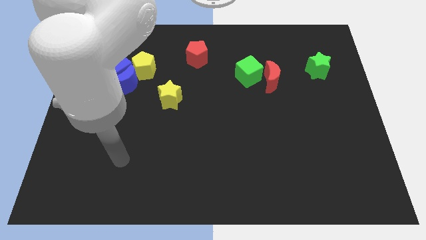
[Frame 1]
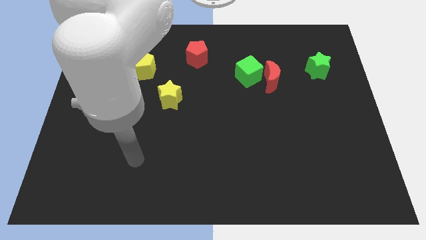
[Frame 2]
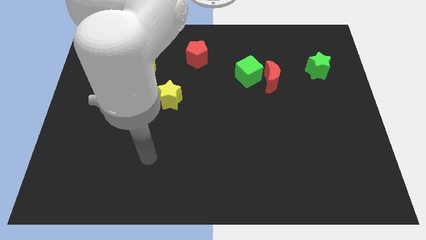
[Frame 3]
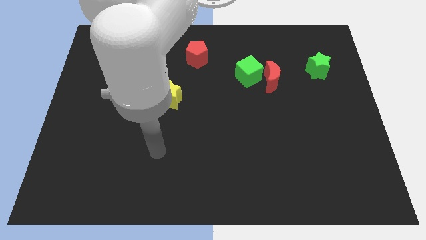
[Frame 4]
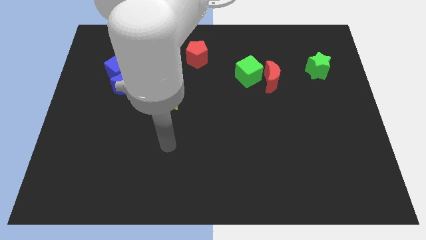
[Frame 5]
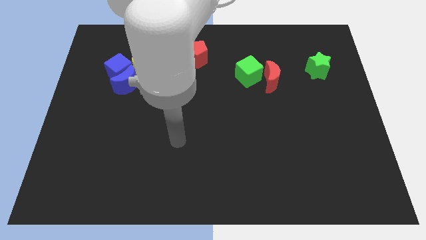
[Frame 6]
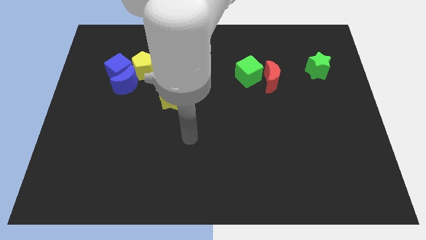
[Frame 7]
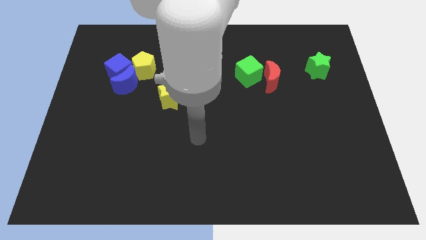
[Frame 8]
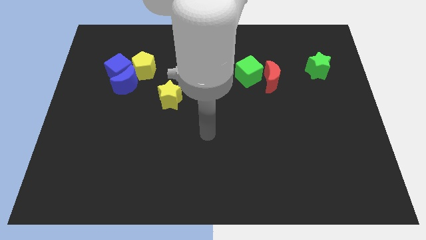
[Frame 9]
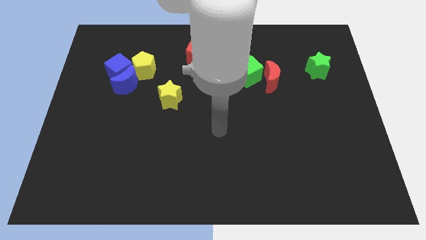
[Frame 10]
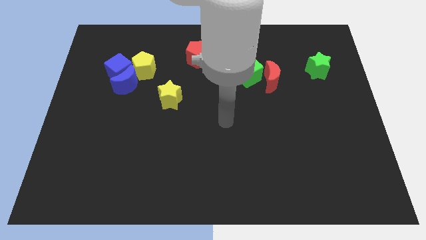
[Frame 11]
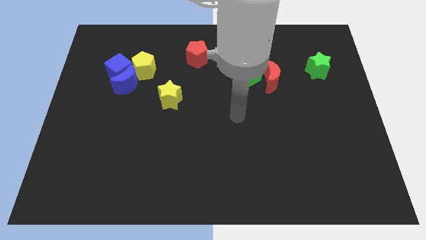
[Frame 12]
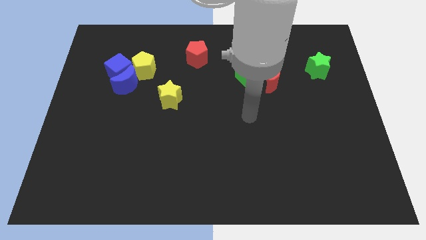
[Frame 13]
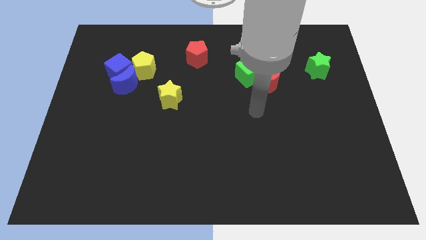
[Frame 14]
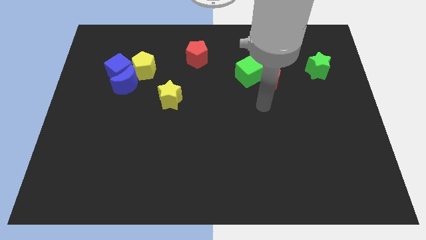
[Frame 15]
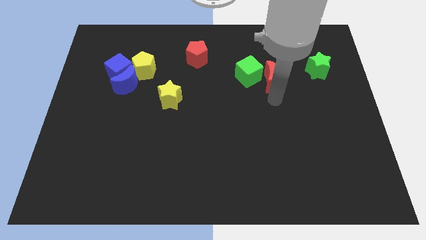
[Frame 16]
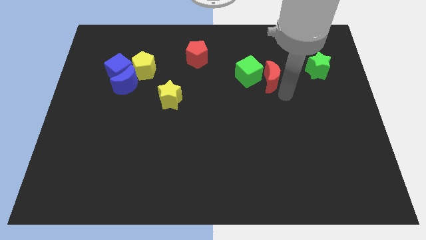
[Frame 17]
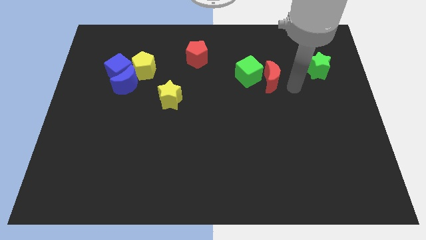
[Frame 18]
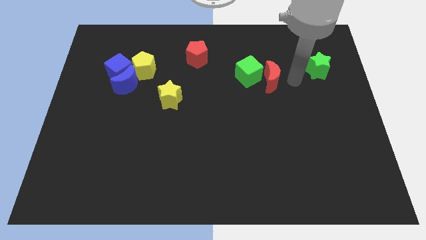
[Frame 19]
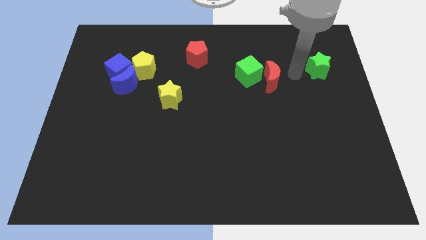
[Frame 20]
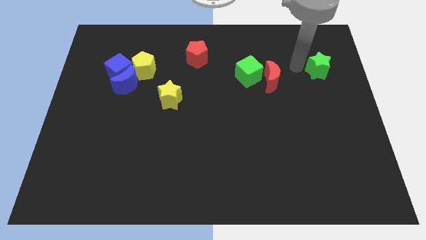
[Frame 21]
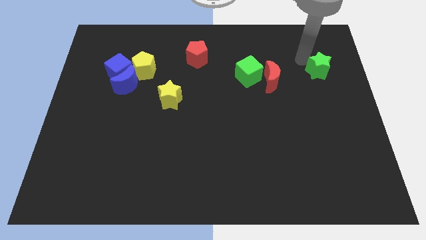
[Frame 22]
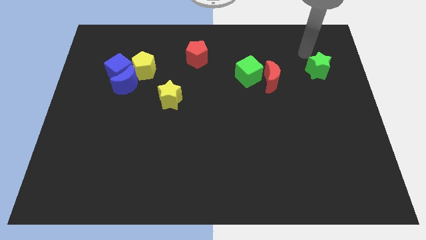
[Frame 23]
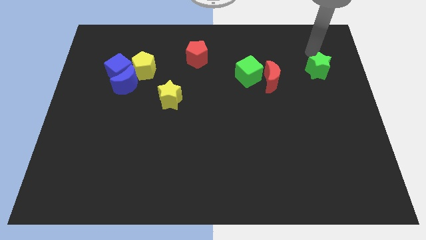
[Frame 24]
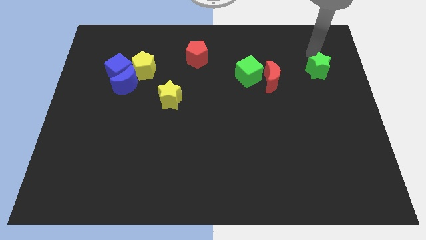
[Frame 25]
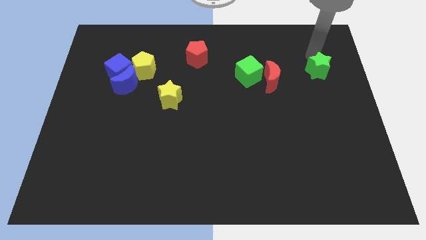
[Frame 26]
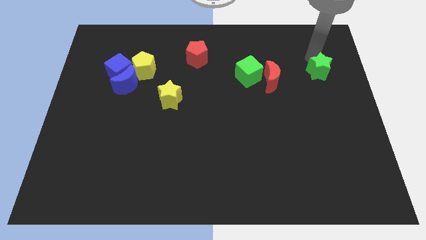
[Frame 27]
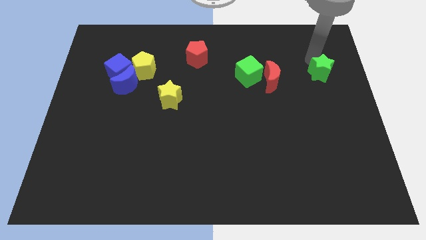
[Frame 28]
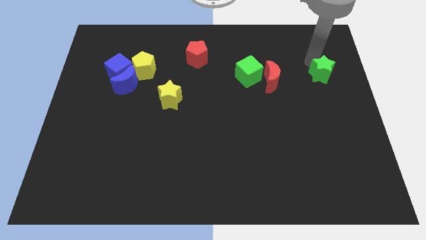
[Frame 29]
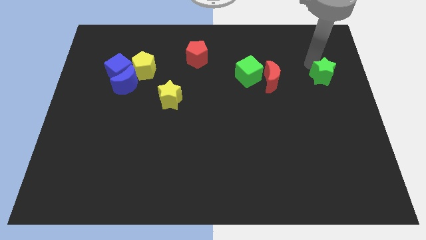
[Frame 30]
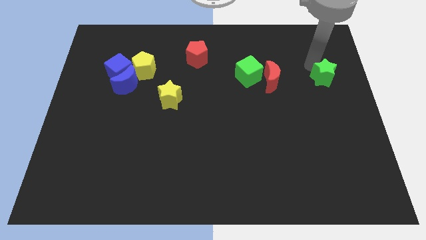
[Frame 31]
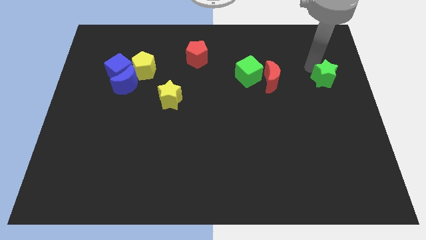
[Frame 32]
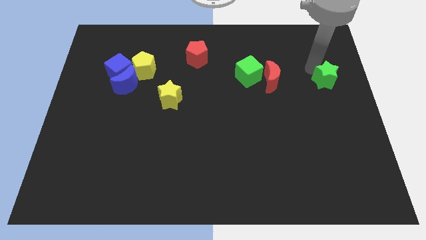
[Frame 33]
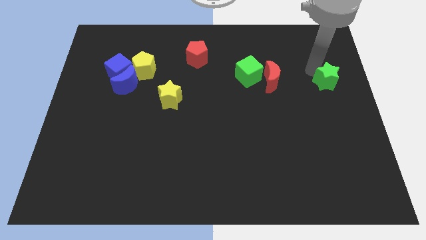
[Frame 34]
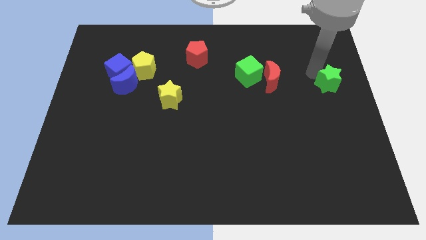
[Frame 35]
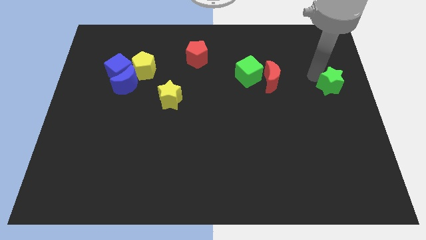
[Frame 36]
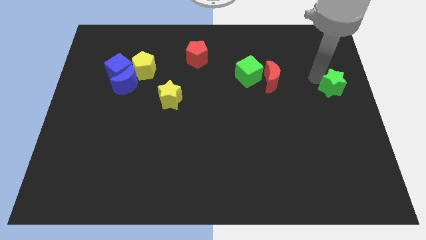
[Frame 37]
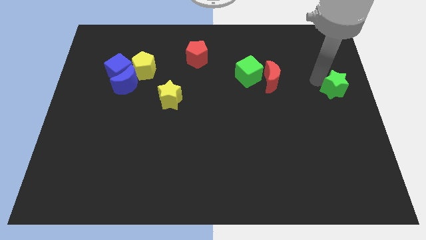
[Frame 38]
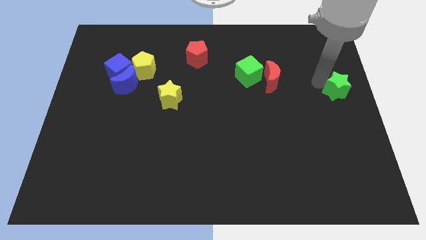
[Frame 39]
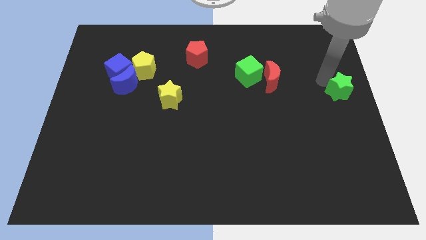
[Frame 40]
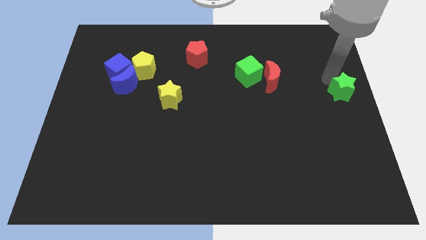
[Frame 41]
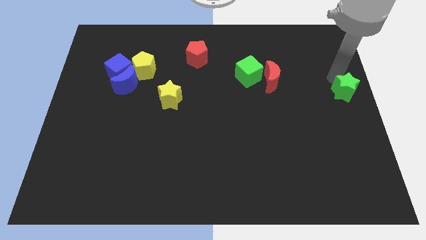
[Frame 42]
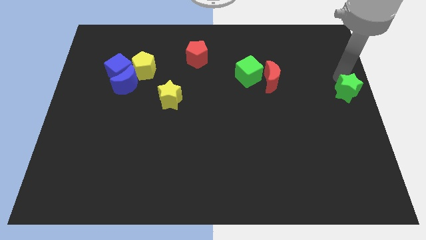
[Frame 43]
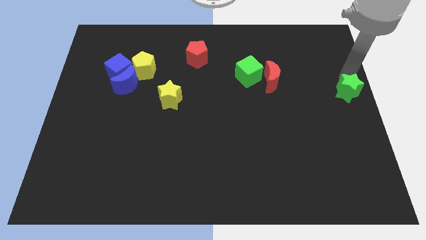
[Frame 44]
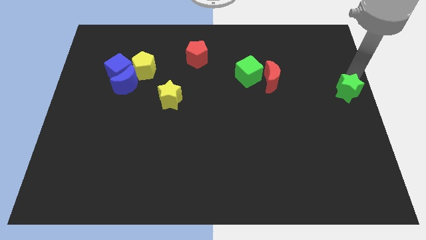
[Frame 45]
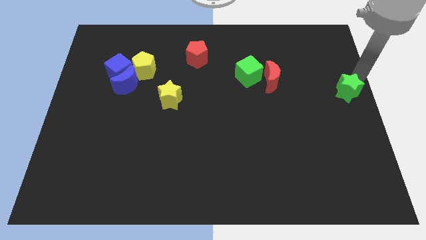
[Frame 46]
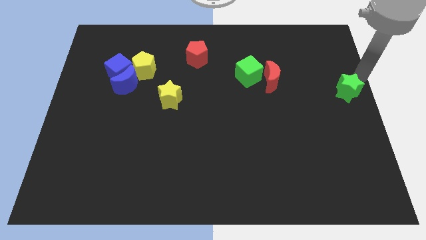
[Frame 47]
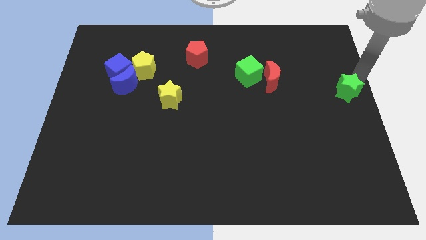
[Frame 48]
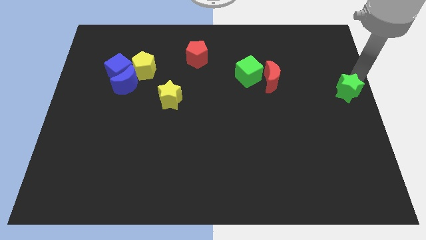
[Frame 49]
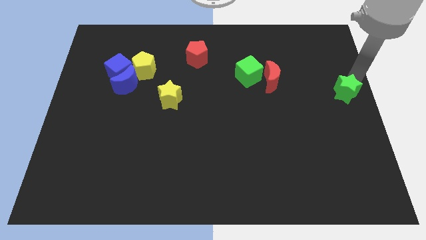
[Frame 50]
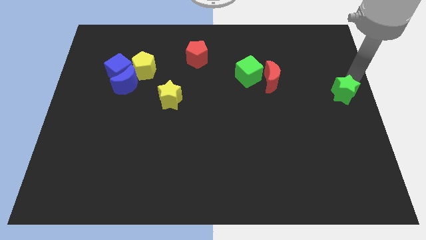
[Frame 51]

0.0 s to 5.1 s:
move the green star somewhat down

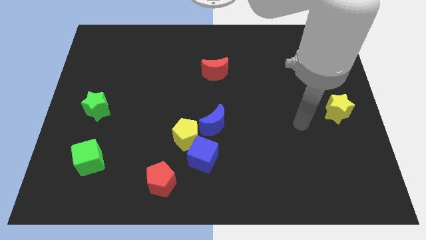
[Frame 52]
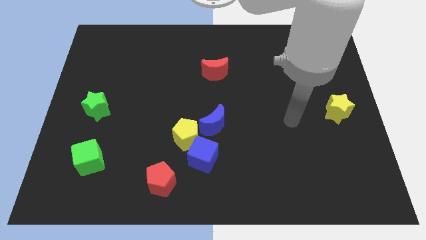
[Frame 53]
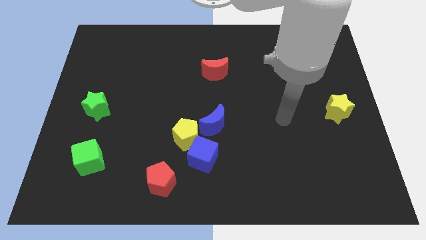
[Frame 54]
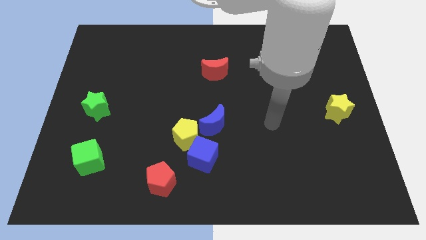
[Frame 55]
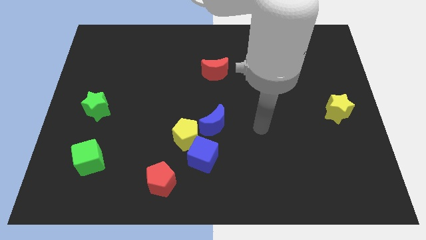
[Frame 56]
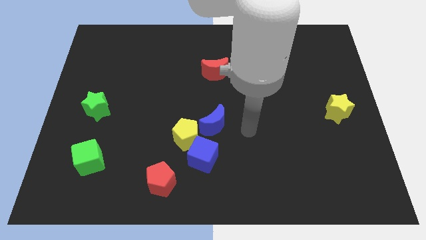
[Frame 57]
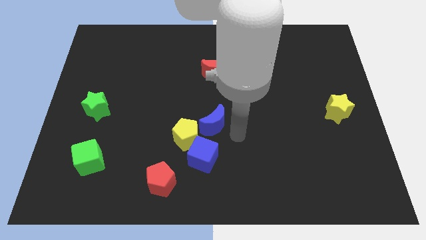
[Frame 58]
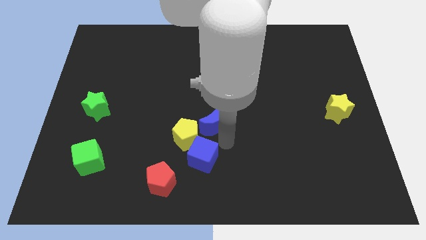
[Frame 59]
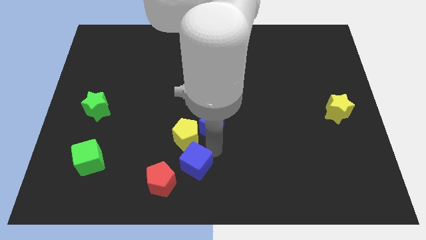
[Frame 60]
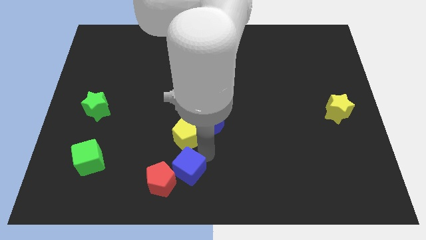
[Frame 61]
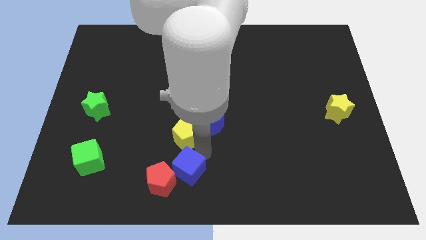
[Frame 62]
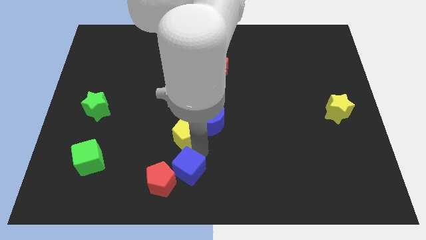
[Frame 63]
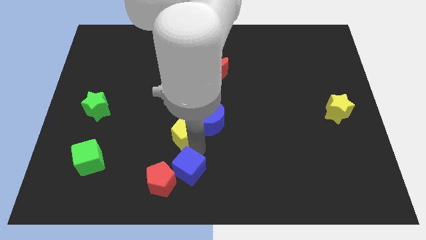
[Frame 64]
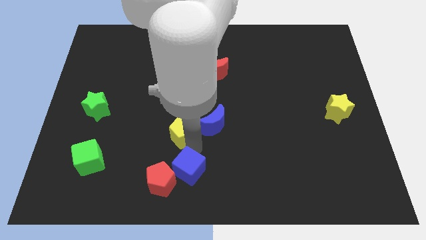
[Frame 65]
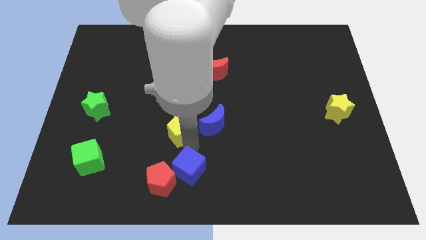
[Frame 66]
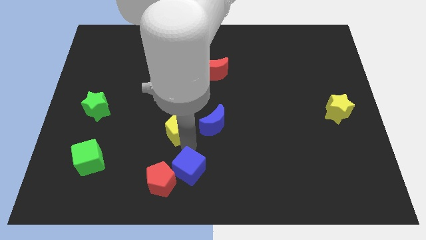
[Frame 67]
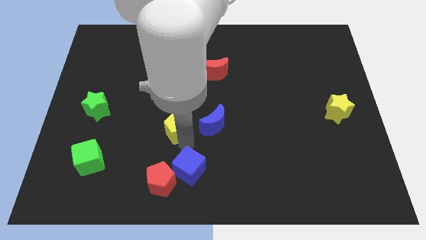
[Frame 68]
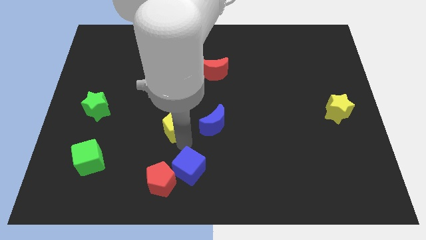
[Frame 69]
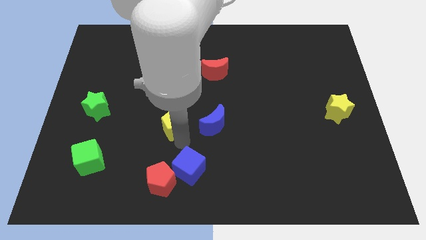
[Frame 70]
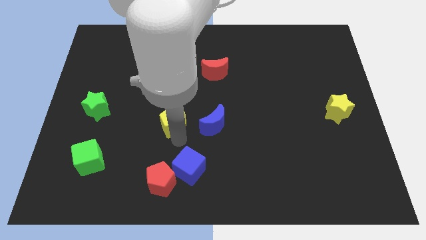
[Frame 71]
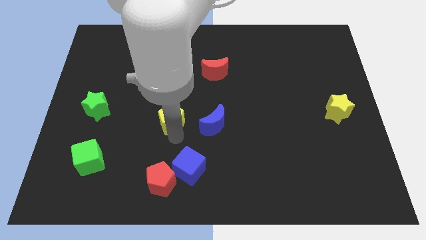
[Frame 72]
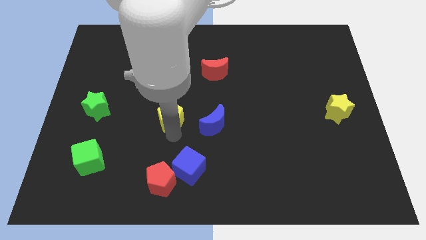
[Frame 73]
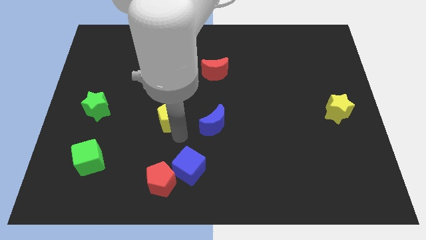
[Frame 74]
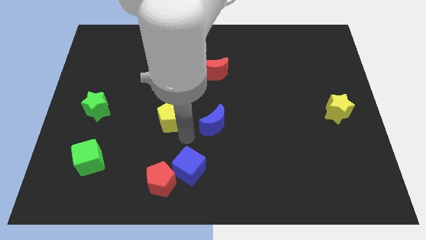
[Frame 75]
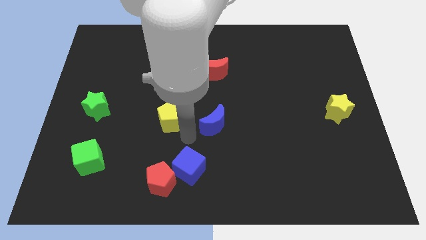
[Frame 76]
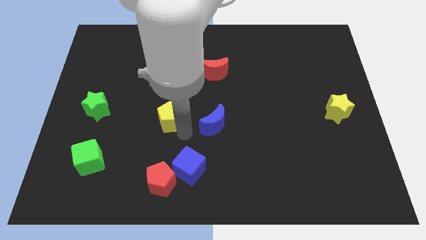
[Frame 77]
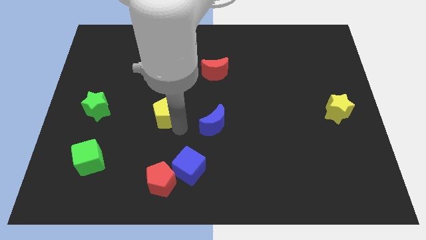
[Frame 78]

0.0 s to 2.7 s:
slightly slide the yellow pentagon up and to the left

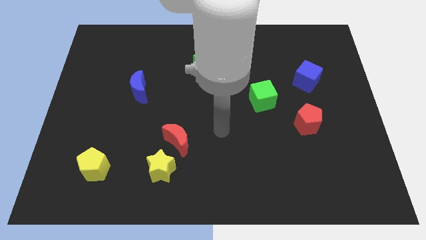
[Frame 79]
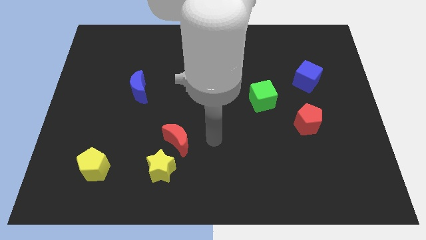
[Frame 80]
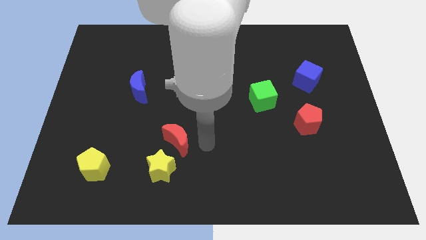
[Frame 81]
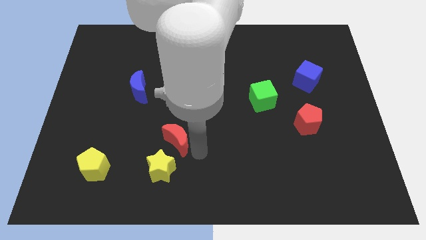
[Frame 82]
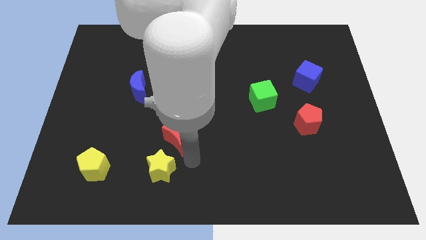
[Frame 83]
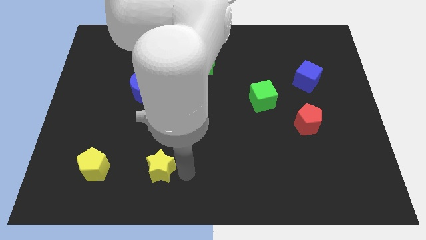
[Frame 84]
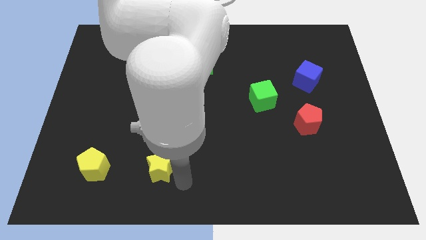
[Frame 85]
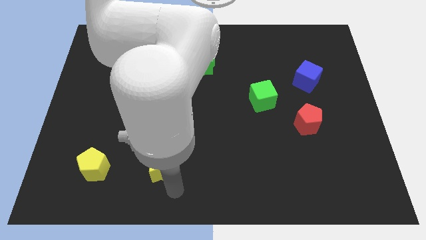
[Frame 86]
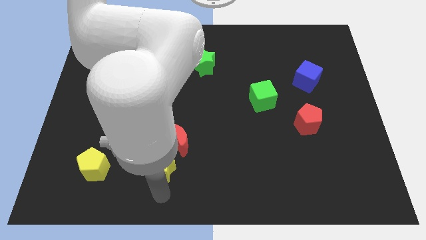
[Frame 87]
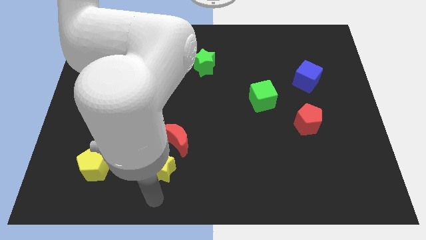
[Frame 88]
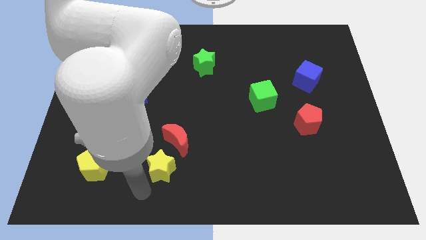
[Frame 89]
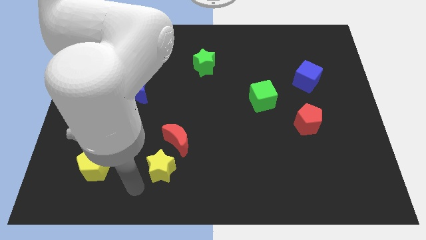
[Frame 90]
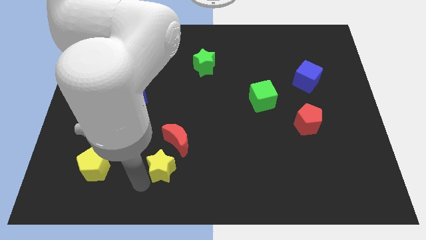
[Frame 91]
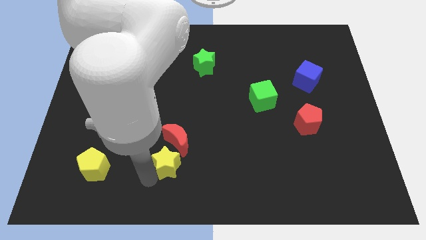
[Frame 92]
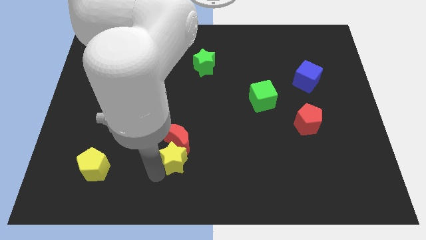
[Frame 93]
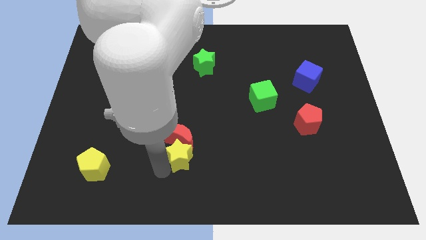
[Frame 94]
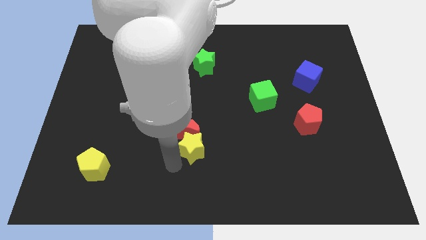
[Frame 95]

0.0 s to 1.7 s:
move the yellow star diagonally upwards and right slightly
